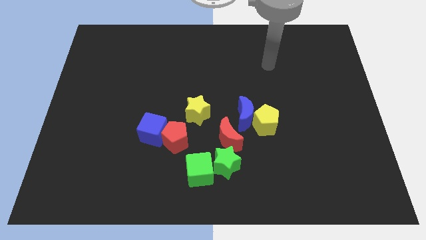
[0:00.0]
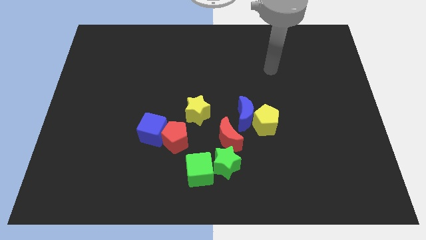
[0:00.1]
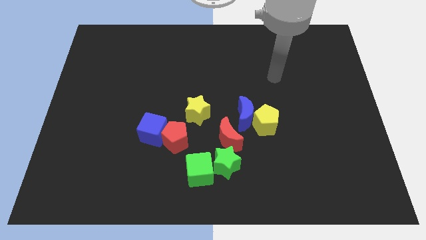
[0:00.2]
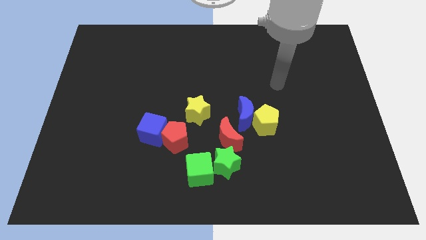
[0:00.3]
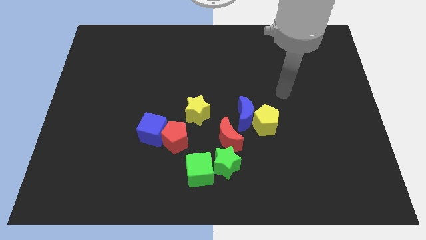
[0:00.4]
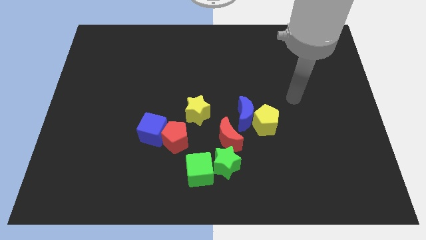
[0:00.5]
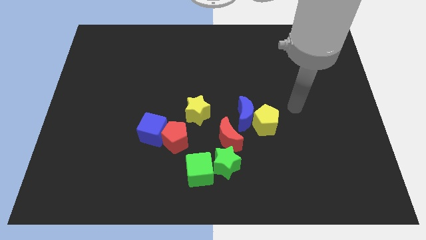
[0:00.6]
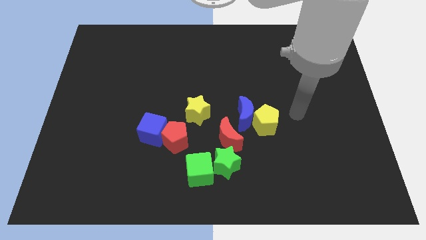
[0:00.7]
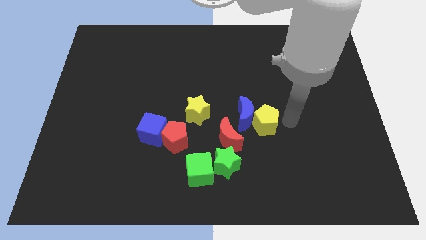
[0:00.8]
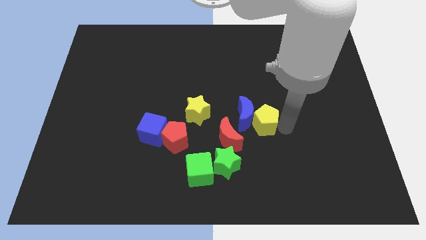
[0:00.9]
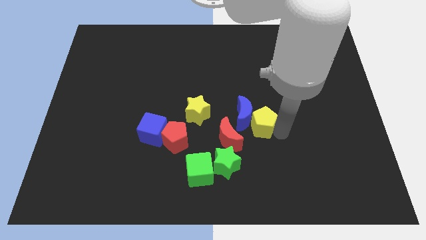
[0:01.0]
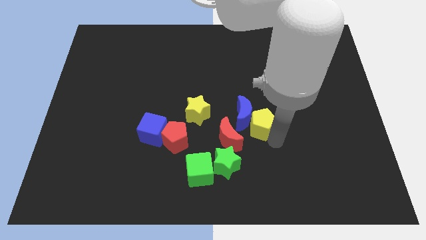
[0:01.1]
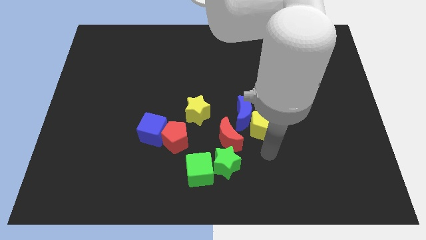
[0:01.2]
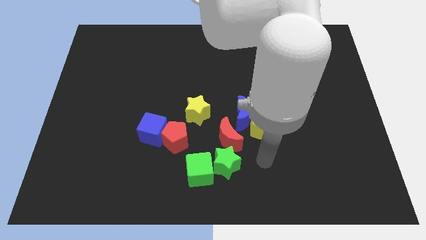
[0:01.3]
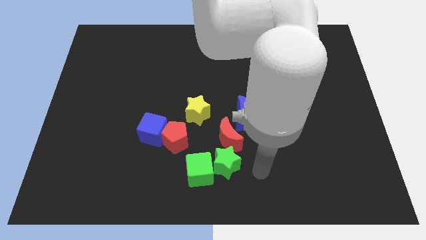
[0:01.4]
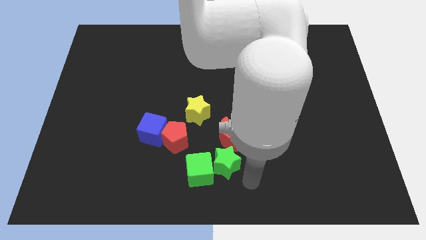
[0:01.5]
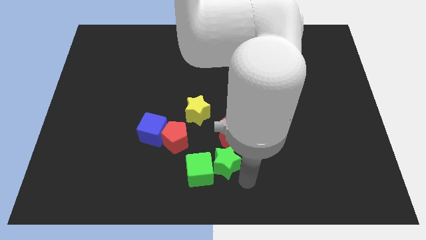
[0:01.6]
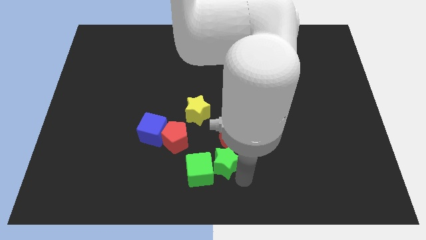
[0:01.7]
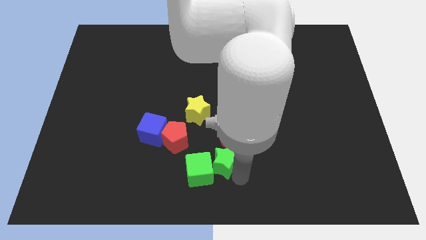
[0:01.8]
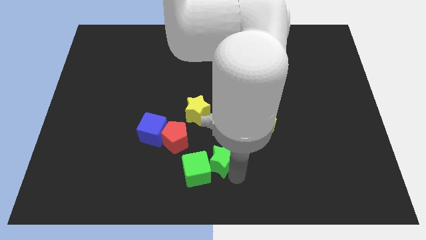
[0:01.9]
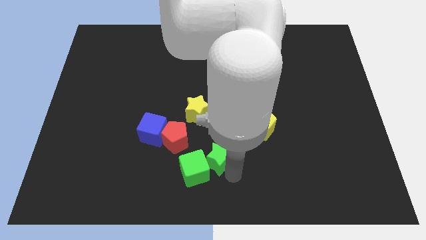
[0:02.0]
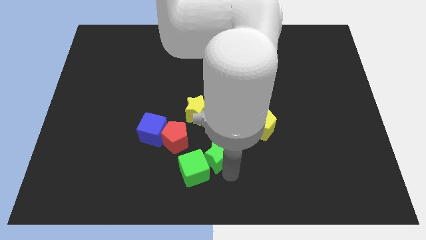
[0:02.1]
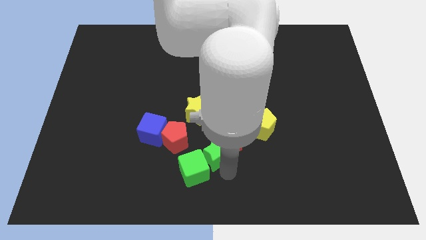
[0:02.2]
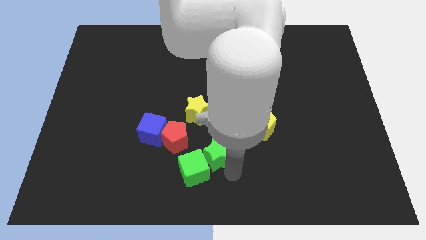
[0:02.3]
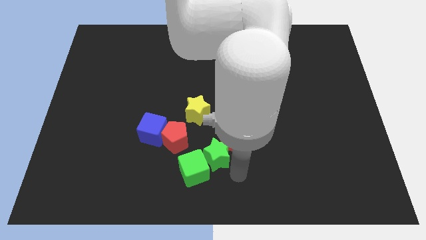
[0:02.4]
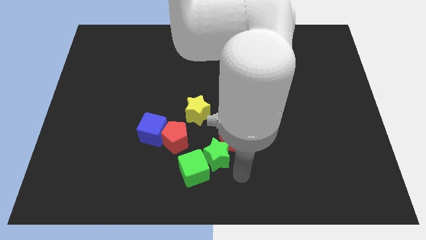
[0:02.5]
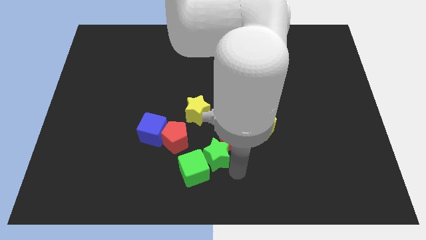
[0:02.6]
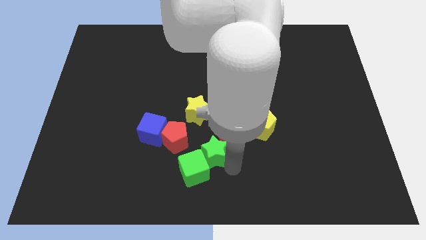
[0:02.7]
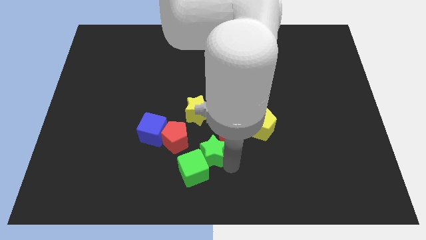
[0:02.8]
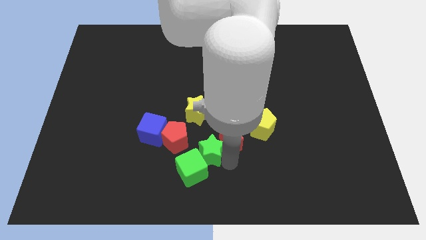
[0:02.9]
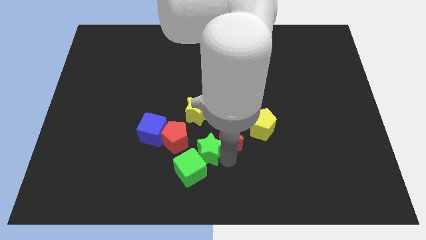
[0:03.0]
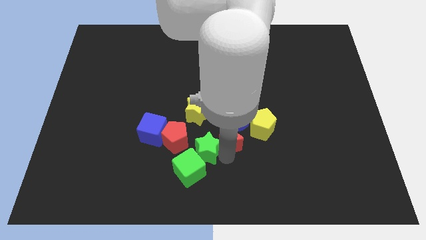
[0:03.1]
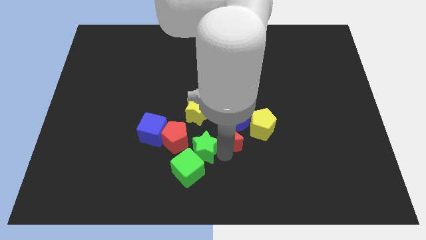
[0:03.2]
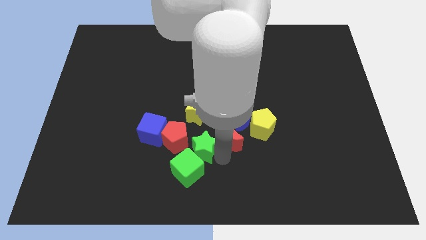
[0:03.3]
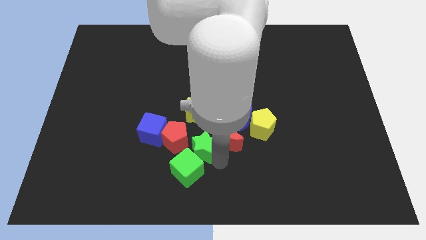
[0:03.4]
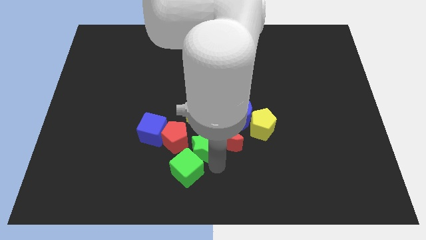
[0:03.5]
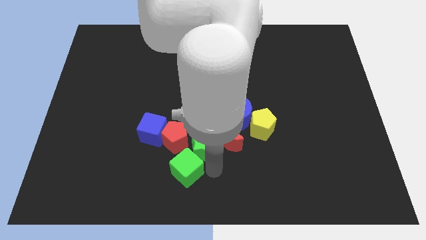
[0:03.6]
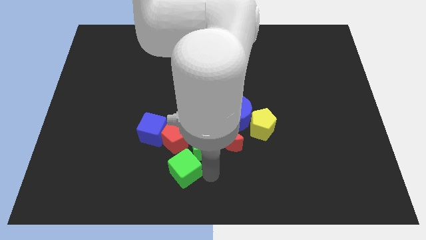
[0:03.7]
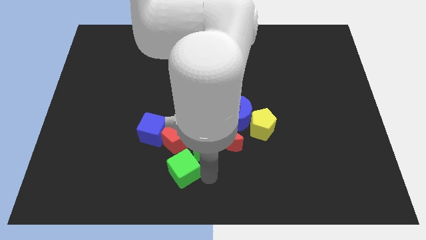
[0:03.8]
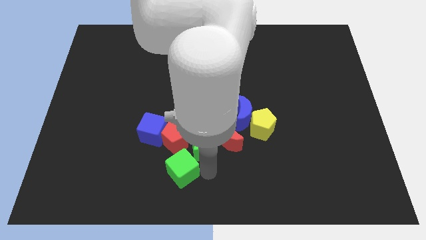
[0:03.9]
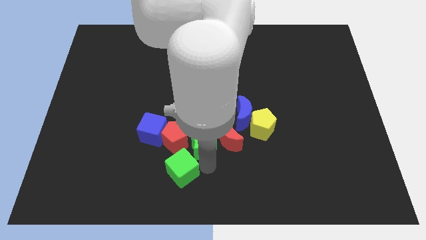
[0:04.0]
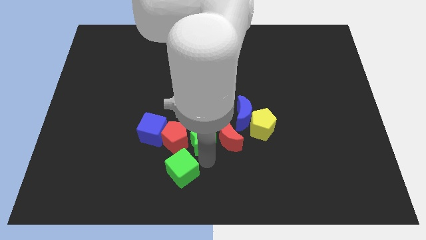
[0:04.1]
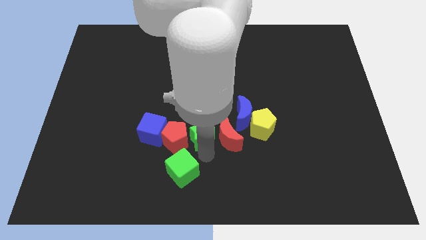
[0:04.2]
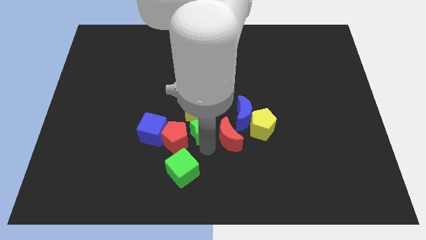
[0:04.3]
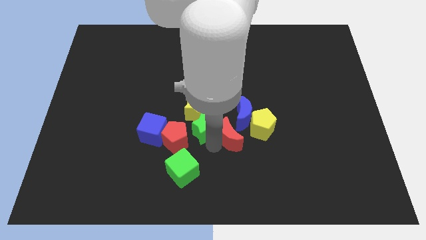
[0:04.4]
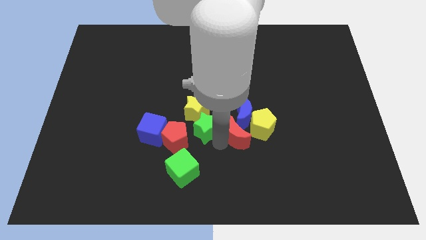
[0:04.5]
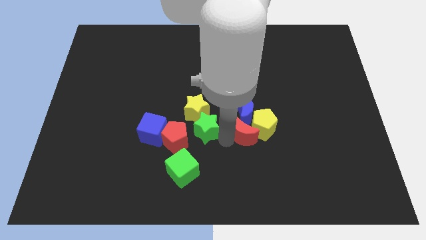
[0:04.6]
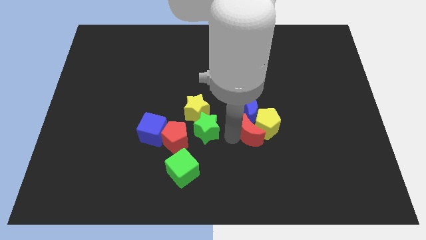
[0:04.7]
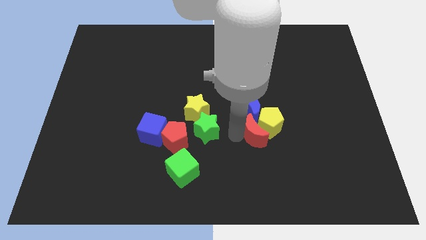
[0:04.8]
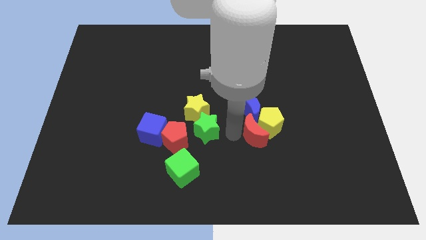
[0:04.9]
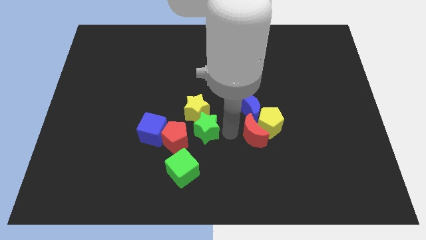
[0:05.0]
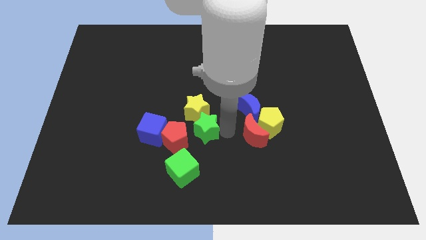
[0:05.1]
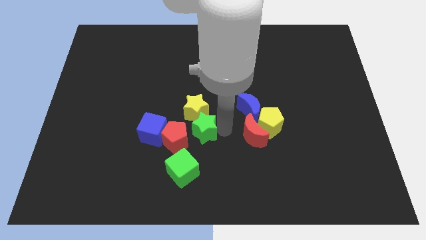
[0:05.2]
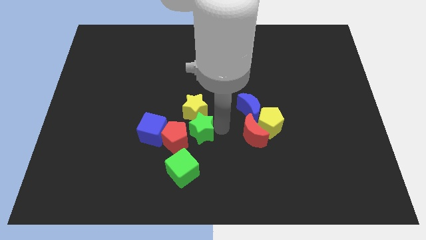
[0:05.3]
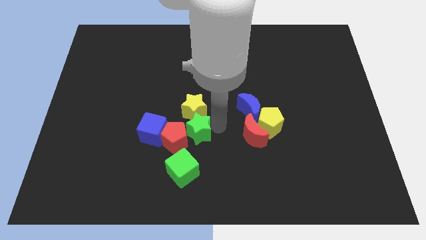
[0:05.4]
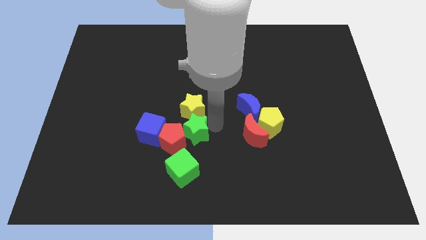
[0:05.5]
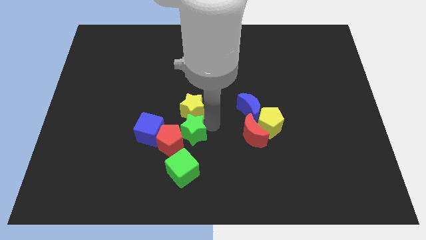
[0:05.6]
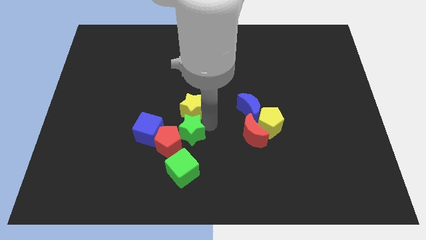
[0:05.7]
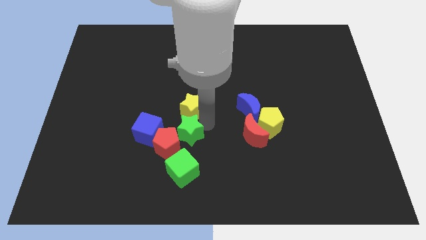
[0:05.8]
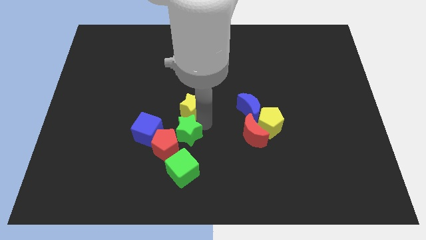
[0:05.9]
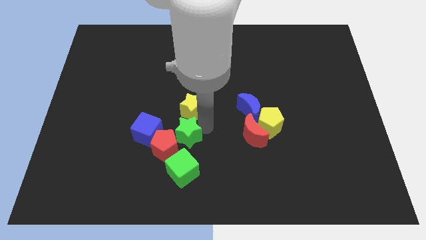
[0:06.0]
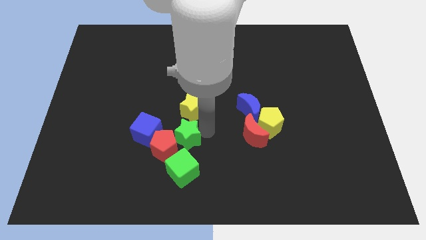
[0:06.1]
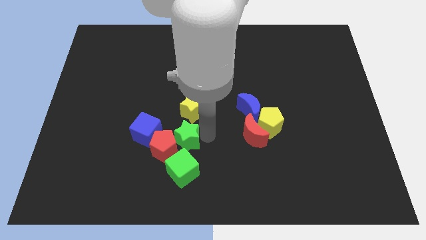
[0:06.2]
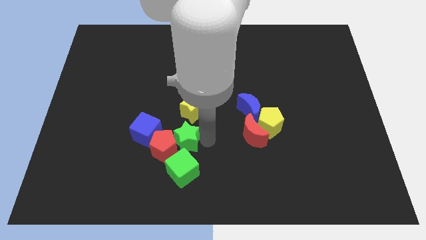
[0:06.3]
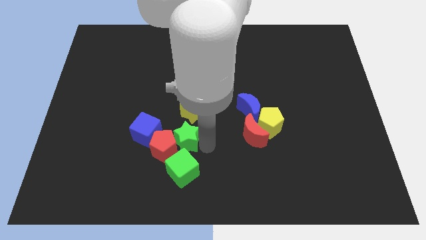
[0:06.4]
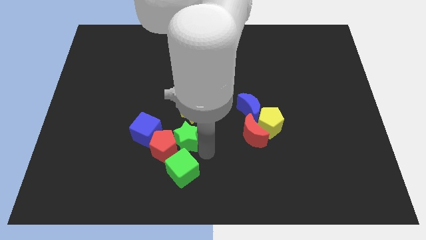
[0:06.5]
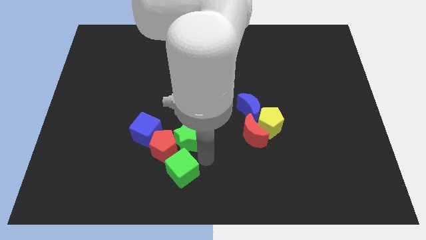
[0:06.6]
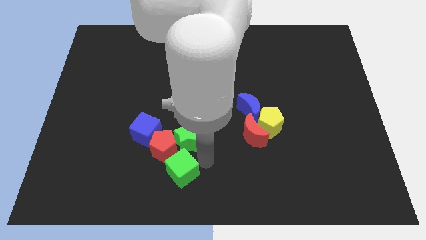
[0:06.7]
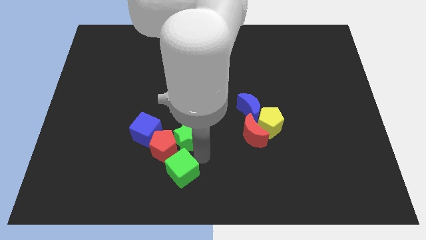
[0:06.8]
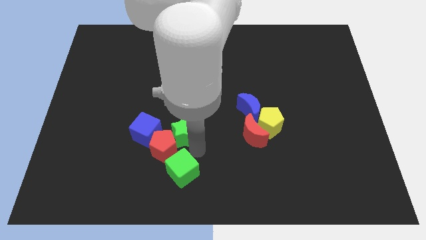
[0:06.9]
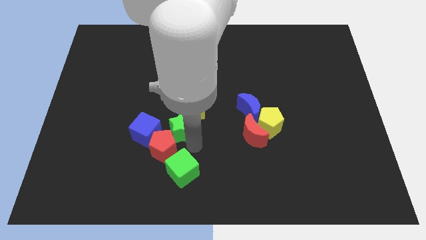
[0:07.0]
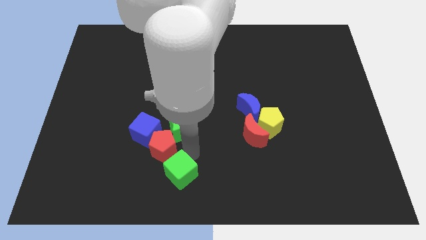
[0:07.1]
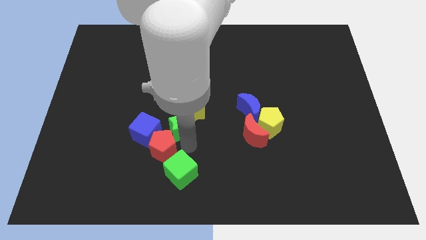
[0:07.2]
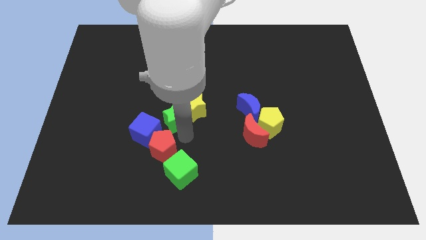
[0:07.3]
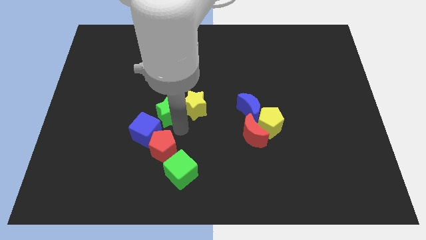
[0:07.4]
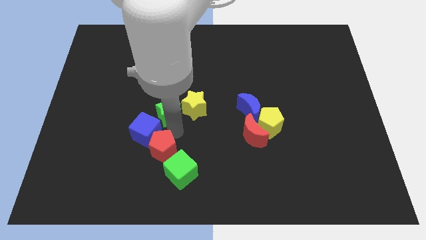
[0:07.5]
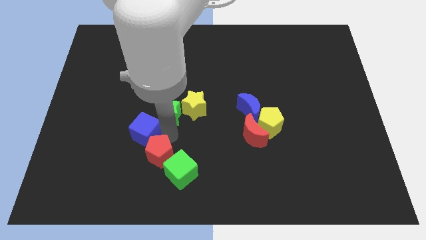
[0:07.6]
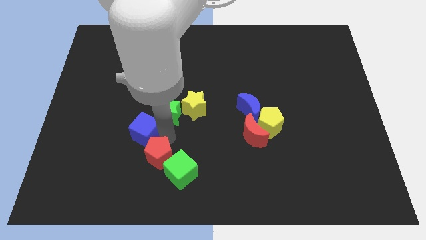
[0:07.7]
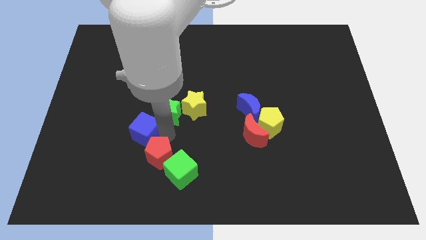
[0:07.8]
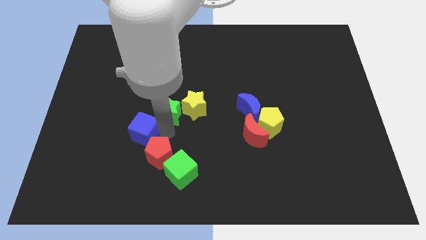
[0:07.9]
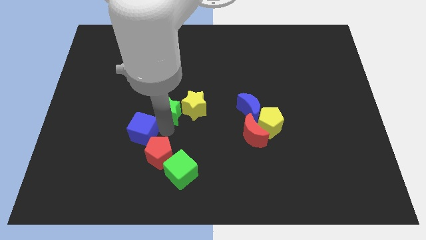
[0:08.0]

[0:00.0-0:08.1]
put the green star to the top left of the yellow star
